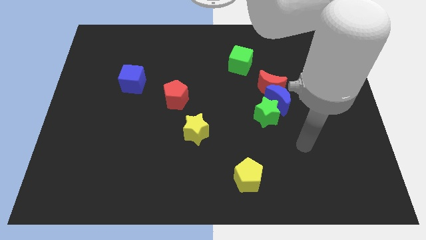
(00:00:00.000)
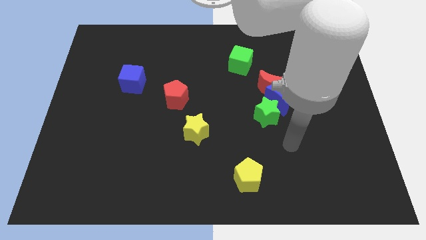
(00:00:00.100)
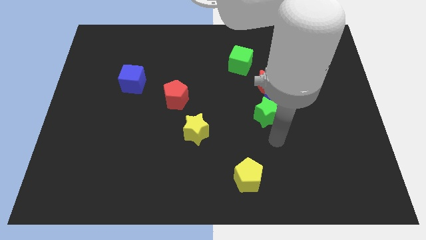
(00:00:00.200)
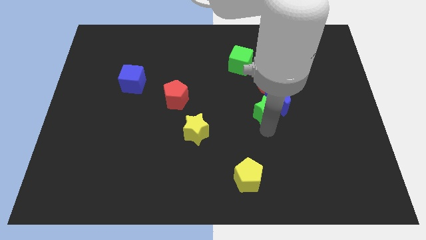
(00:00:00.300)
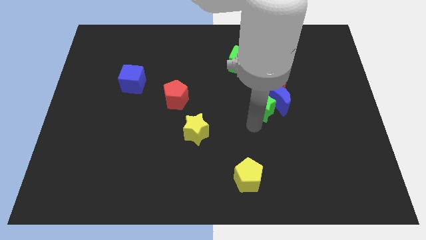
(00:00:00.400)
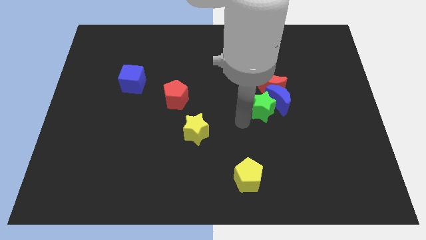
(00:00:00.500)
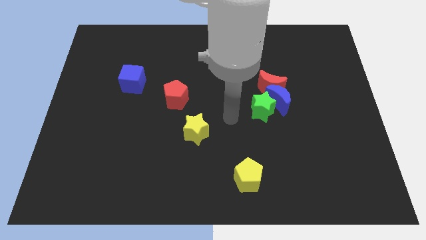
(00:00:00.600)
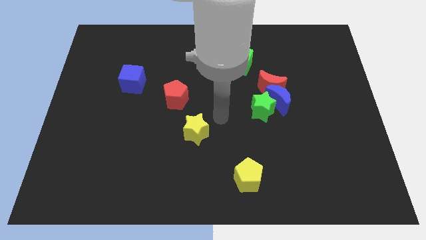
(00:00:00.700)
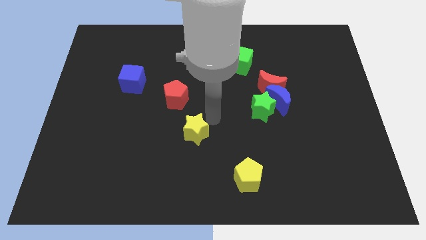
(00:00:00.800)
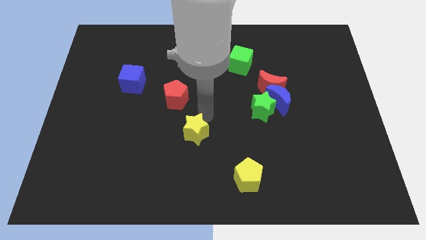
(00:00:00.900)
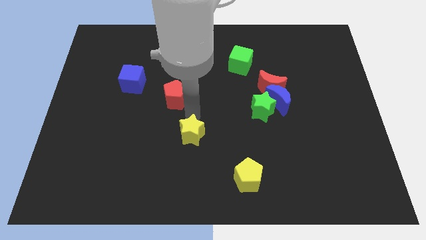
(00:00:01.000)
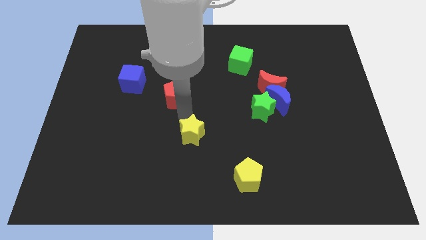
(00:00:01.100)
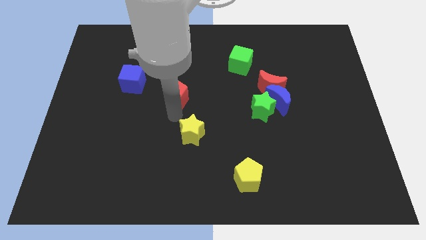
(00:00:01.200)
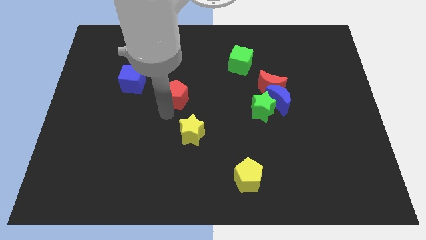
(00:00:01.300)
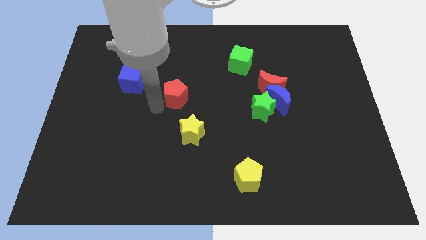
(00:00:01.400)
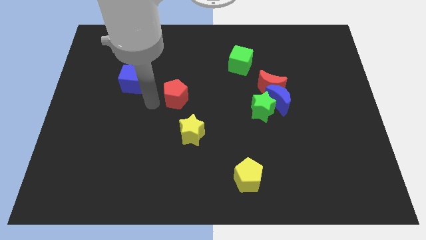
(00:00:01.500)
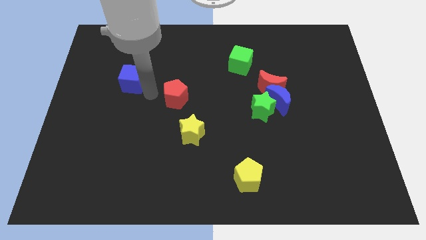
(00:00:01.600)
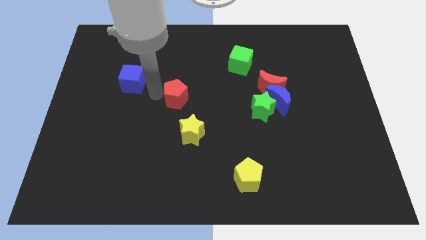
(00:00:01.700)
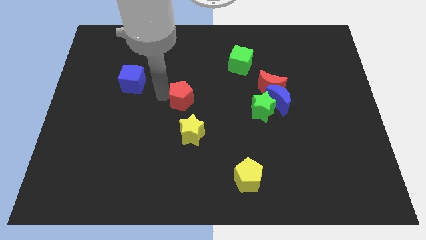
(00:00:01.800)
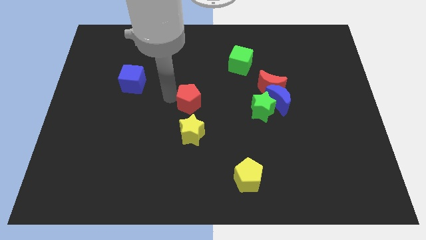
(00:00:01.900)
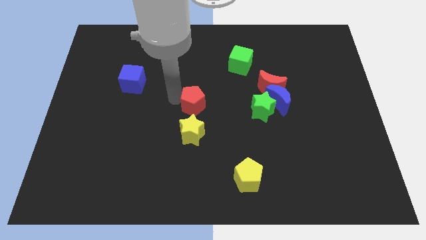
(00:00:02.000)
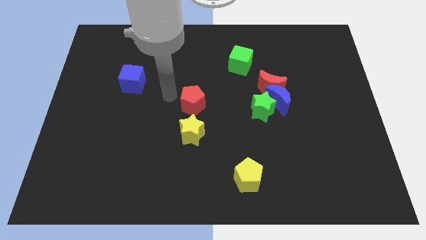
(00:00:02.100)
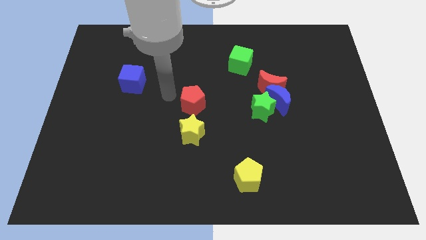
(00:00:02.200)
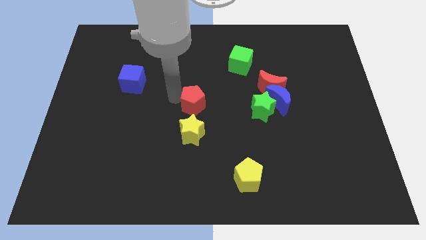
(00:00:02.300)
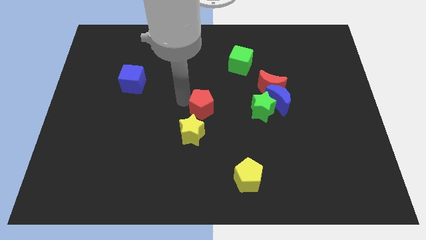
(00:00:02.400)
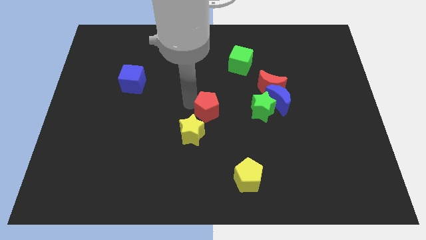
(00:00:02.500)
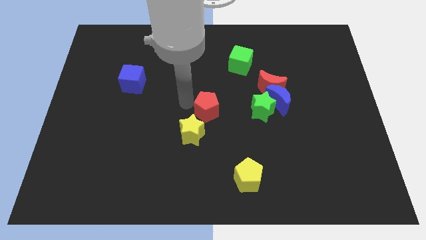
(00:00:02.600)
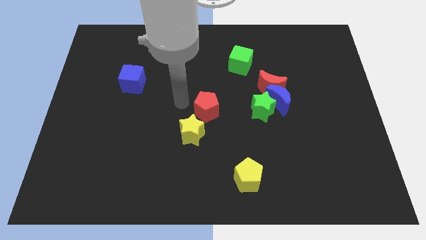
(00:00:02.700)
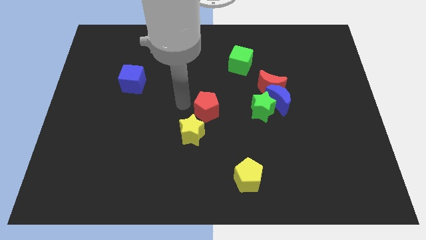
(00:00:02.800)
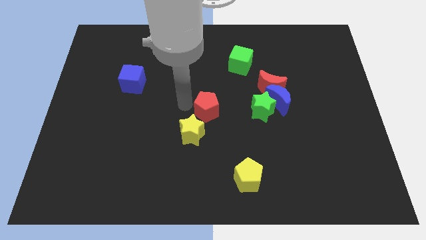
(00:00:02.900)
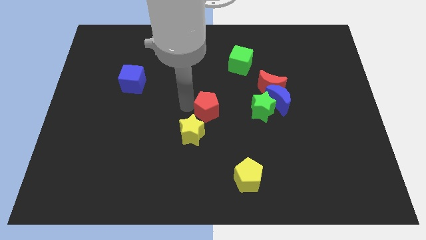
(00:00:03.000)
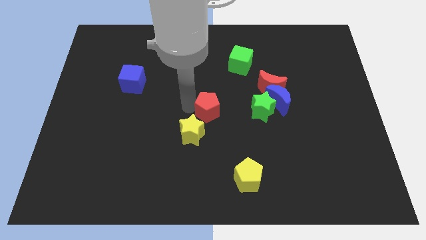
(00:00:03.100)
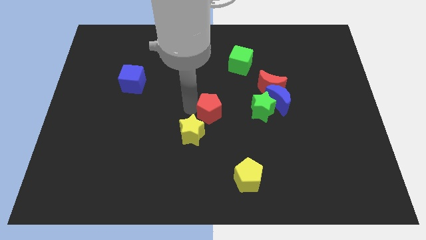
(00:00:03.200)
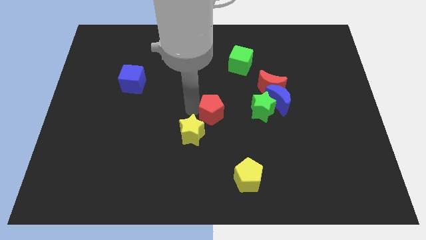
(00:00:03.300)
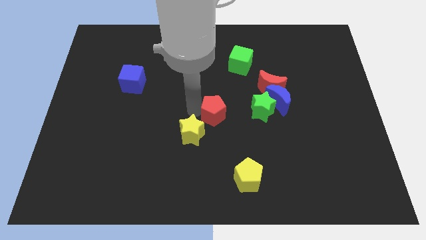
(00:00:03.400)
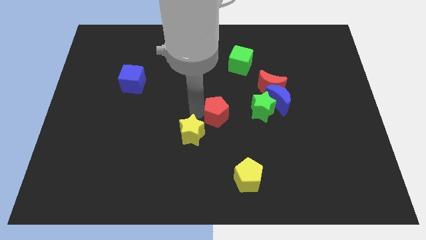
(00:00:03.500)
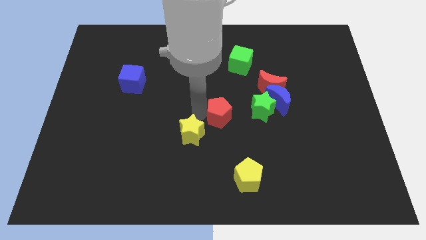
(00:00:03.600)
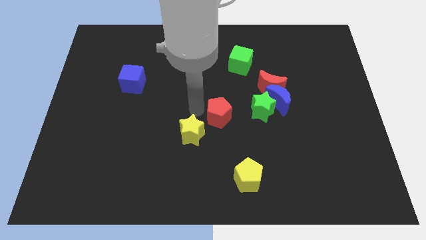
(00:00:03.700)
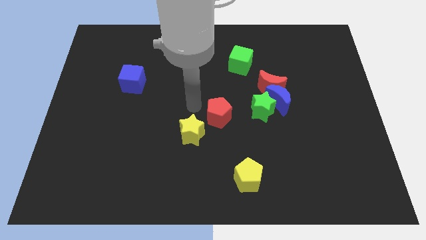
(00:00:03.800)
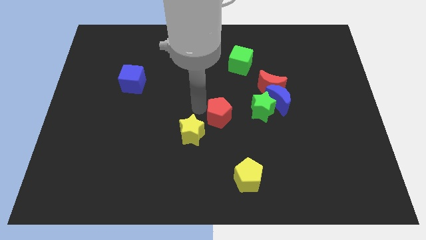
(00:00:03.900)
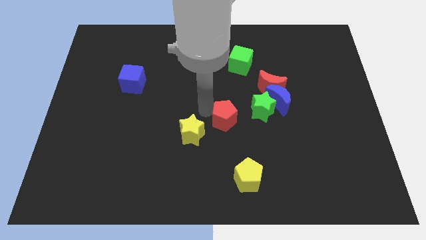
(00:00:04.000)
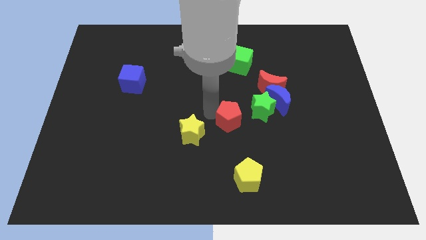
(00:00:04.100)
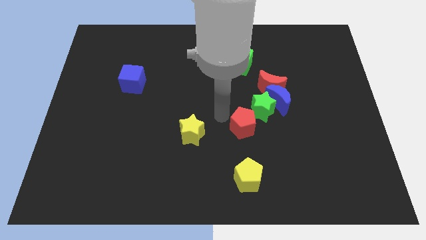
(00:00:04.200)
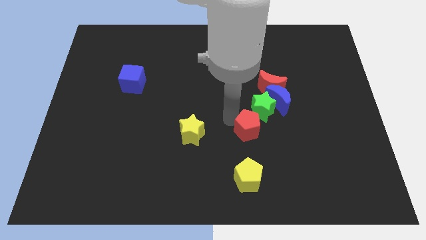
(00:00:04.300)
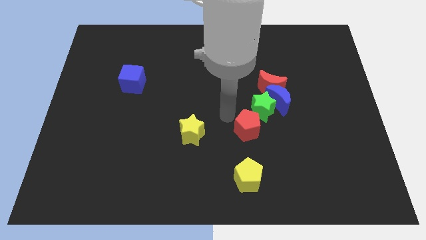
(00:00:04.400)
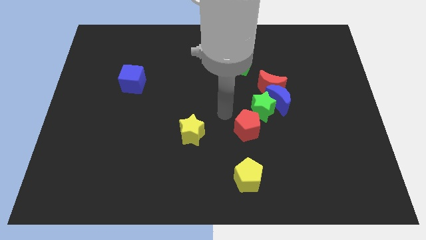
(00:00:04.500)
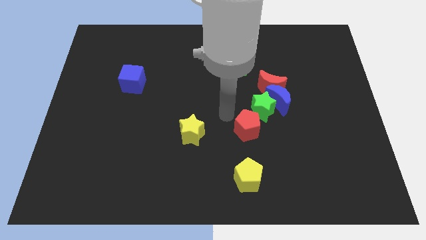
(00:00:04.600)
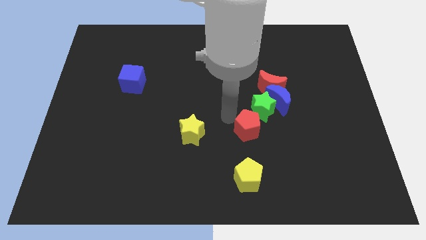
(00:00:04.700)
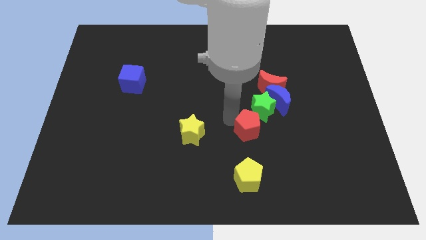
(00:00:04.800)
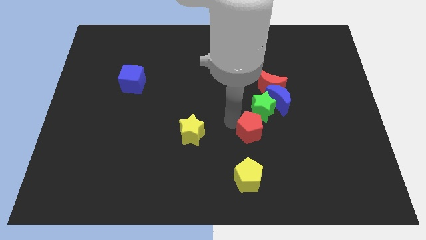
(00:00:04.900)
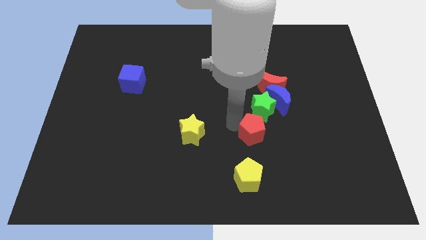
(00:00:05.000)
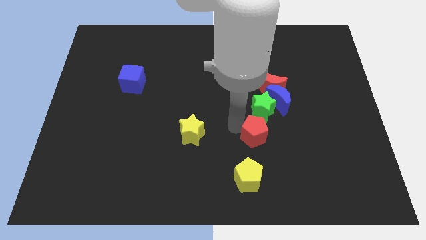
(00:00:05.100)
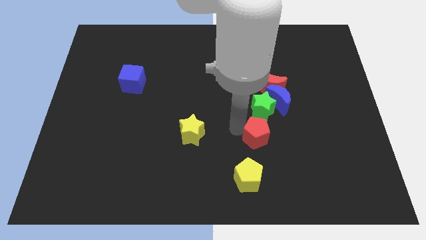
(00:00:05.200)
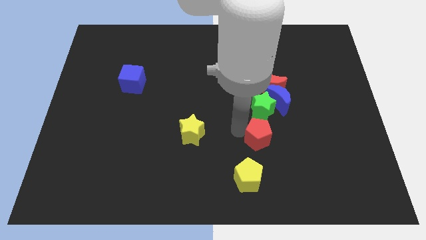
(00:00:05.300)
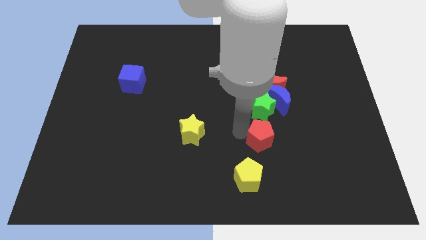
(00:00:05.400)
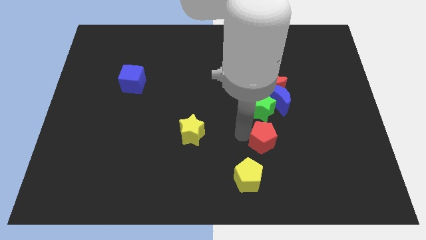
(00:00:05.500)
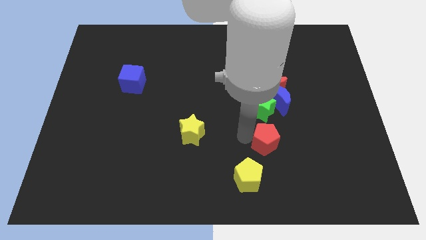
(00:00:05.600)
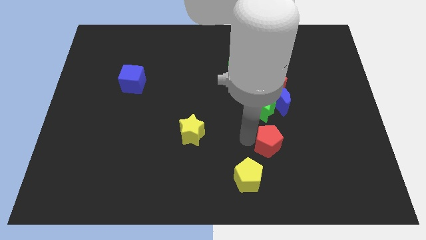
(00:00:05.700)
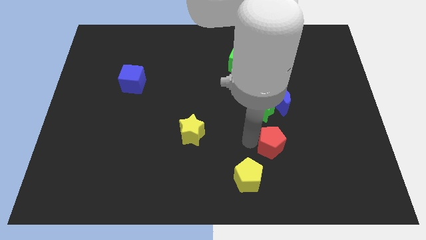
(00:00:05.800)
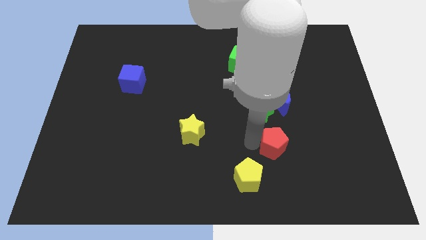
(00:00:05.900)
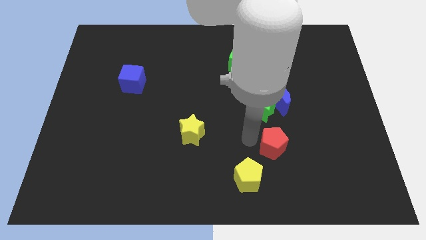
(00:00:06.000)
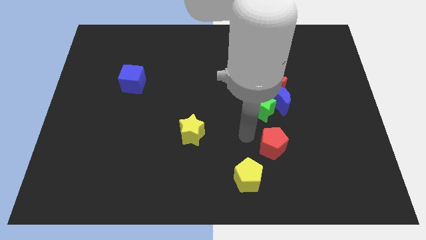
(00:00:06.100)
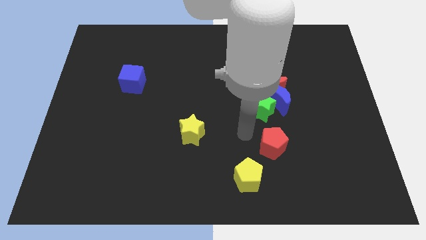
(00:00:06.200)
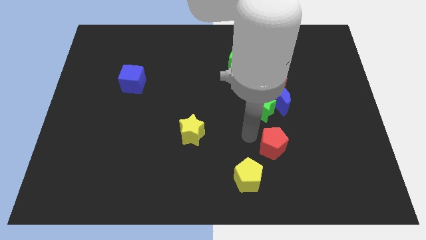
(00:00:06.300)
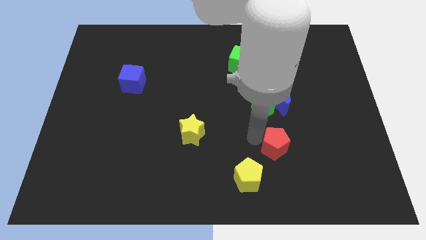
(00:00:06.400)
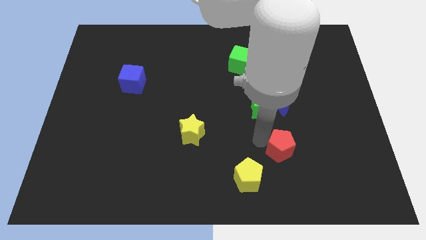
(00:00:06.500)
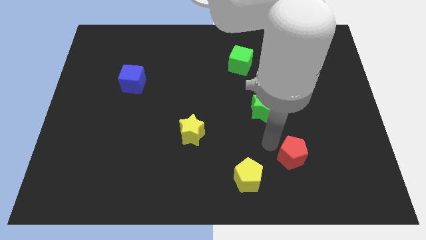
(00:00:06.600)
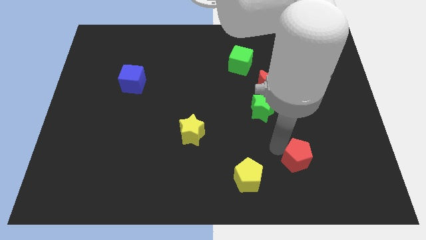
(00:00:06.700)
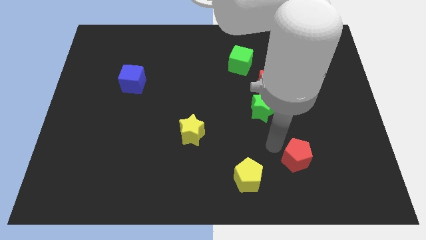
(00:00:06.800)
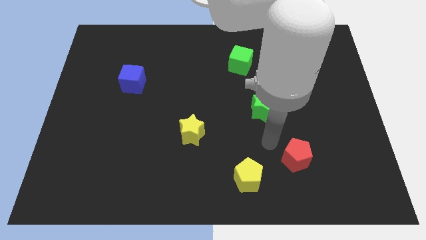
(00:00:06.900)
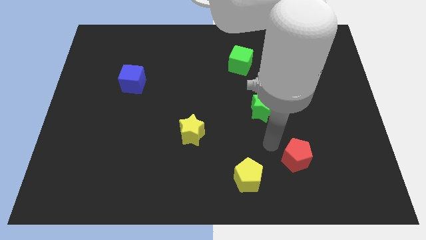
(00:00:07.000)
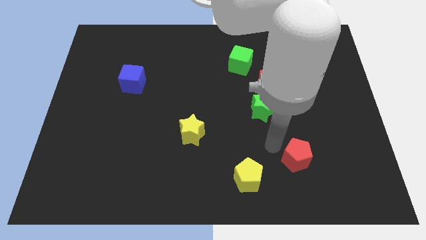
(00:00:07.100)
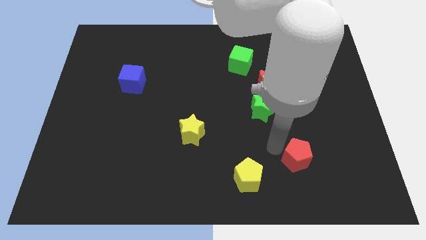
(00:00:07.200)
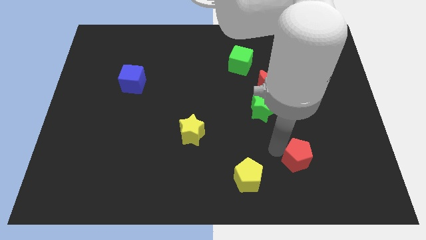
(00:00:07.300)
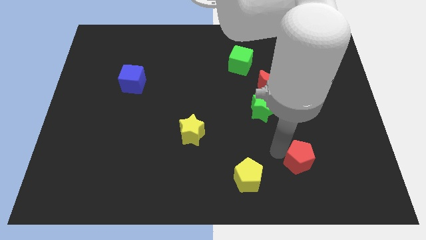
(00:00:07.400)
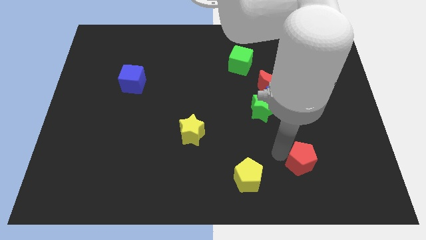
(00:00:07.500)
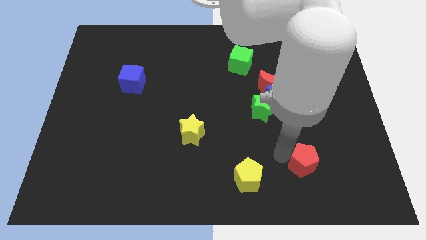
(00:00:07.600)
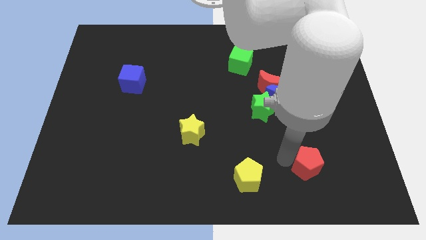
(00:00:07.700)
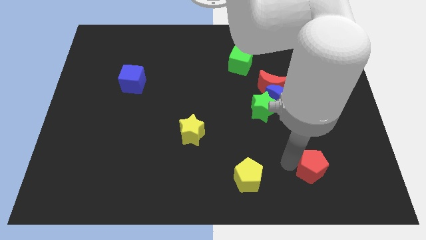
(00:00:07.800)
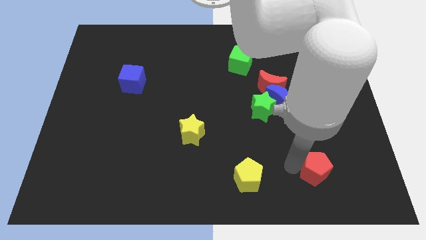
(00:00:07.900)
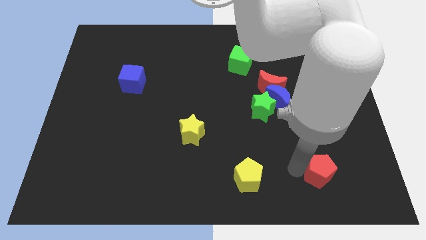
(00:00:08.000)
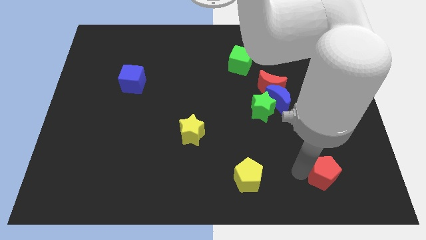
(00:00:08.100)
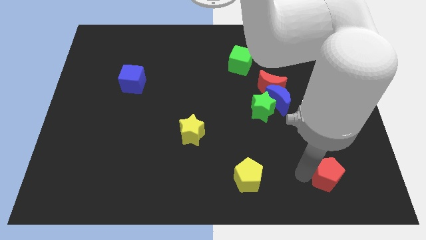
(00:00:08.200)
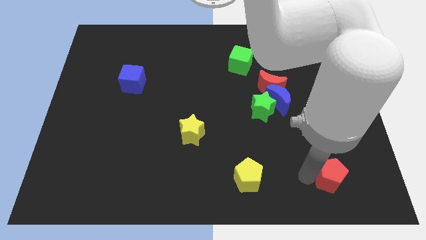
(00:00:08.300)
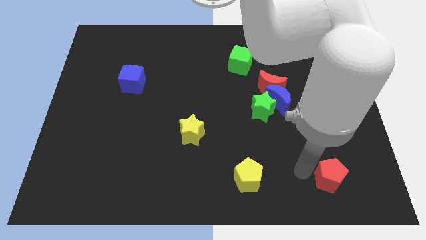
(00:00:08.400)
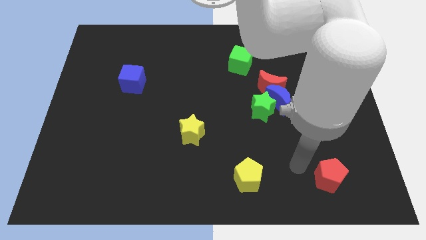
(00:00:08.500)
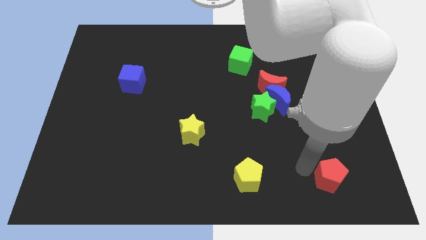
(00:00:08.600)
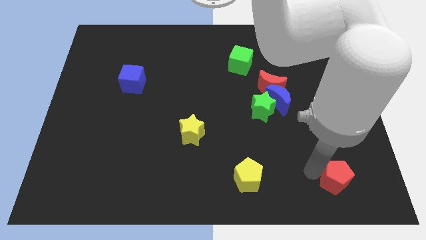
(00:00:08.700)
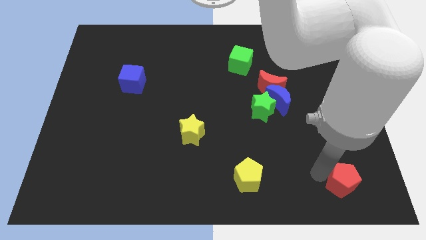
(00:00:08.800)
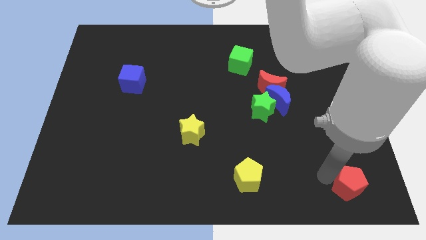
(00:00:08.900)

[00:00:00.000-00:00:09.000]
put the red pentagon to the lower right corner
